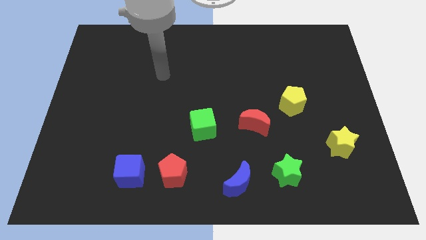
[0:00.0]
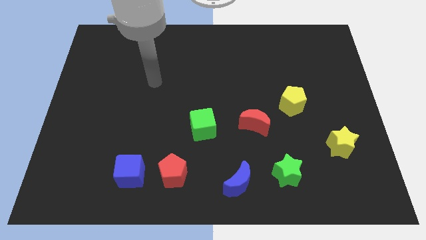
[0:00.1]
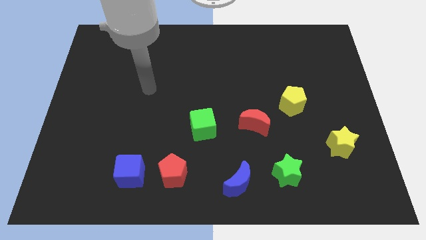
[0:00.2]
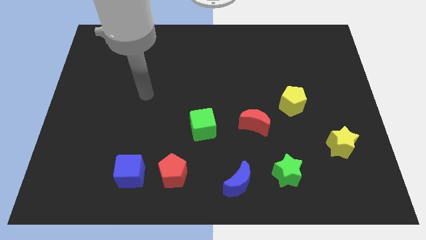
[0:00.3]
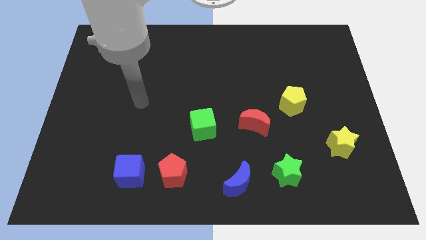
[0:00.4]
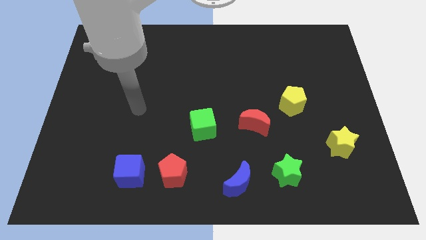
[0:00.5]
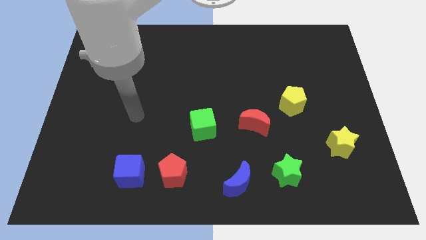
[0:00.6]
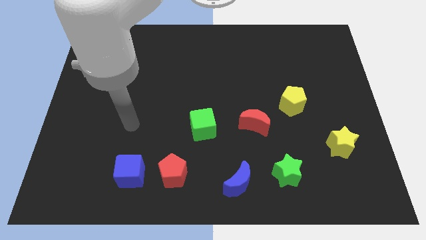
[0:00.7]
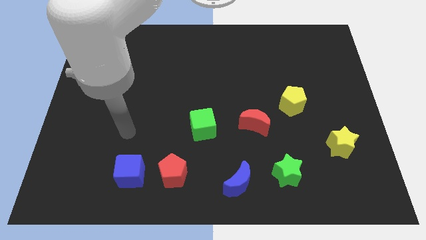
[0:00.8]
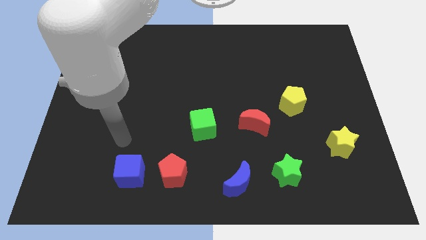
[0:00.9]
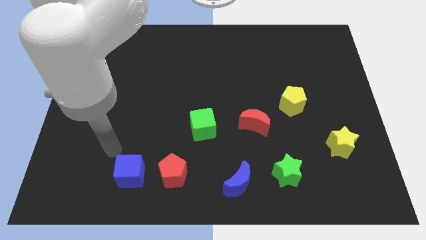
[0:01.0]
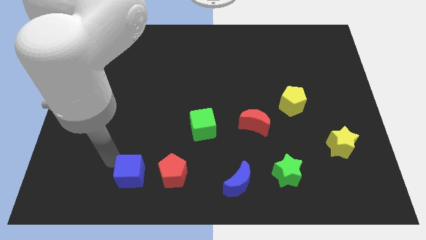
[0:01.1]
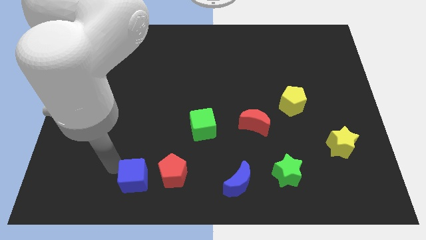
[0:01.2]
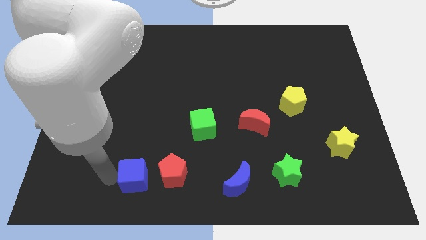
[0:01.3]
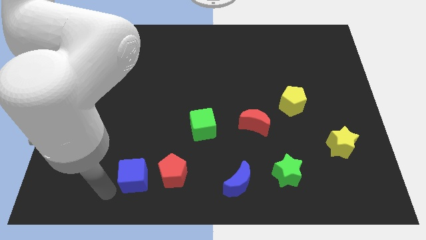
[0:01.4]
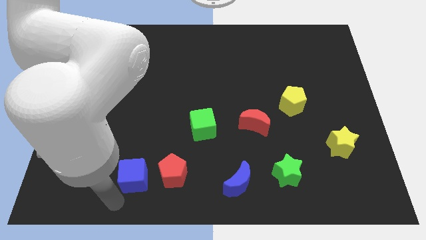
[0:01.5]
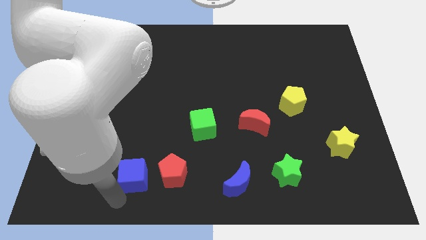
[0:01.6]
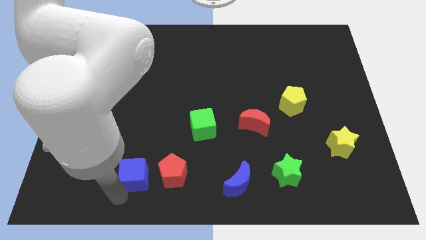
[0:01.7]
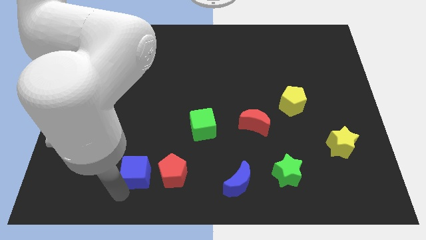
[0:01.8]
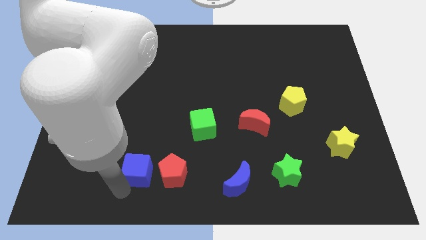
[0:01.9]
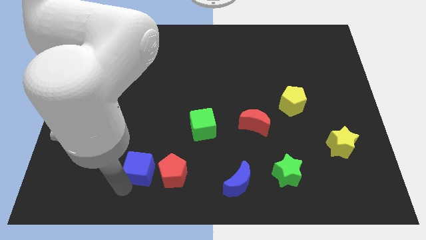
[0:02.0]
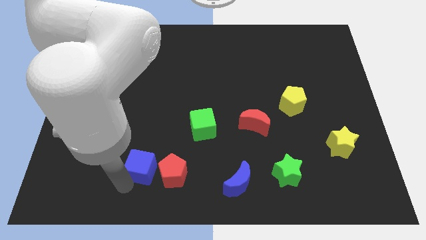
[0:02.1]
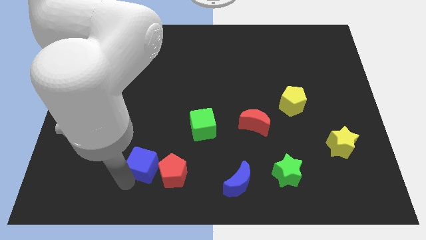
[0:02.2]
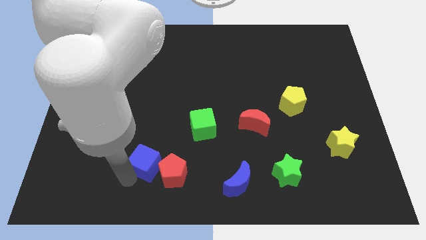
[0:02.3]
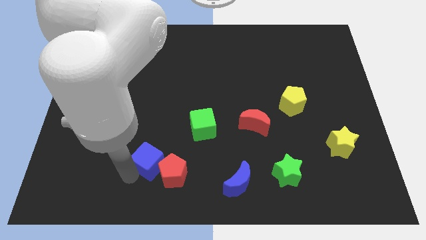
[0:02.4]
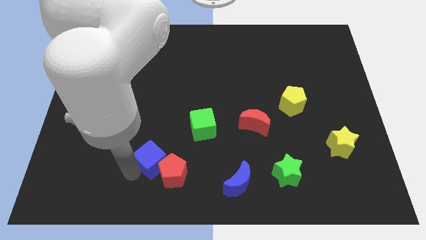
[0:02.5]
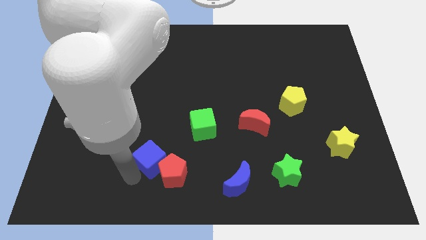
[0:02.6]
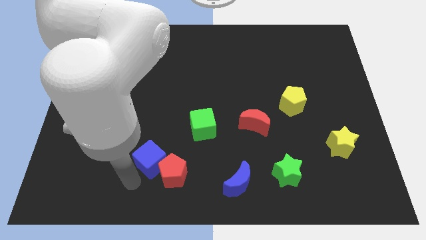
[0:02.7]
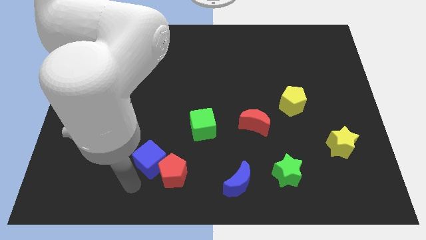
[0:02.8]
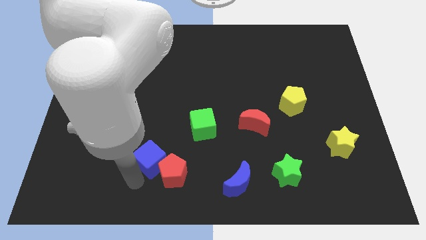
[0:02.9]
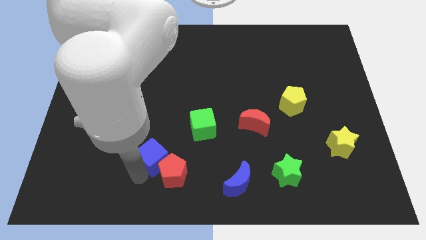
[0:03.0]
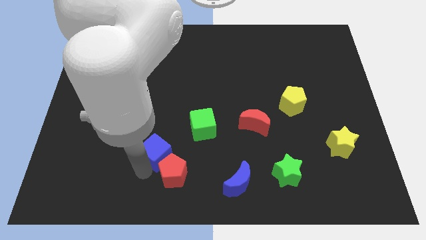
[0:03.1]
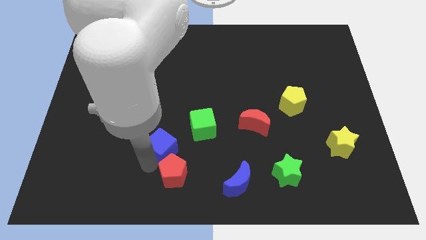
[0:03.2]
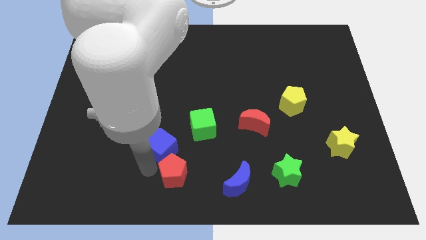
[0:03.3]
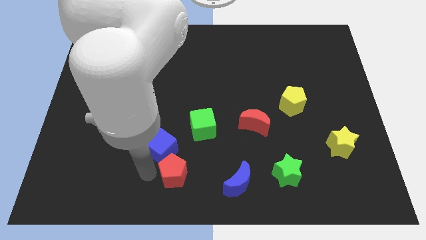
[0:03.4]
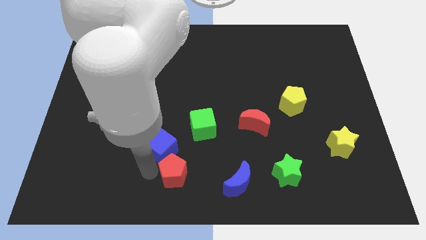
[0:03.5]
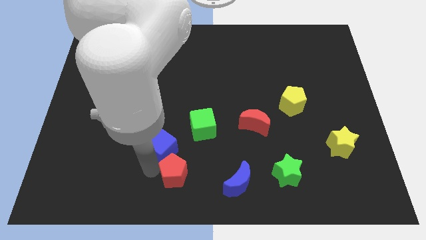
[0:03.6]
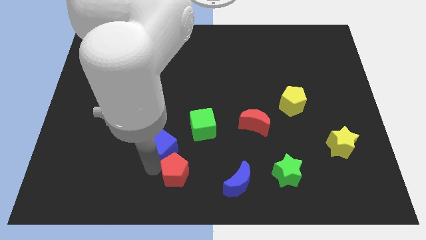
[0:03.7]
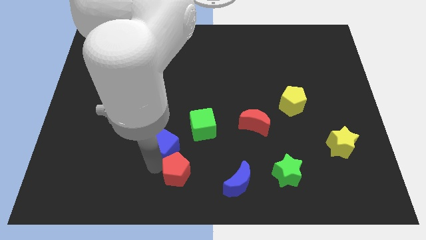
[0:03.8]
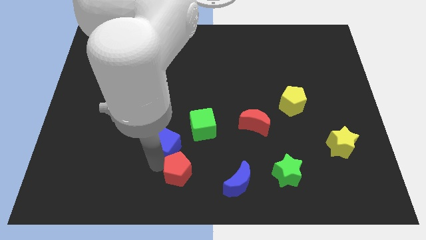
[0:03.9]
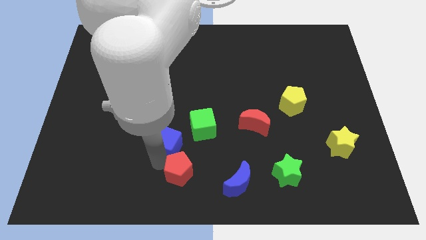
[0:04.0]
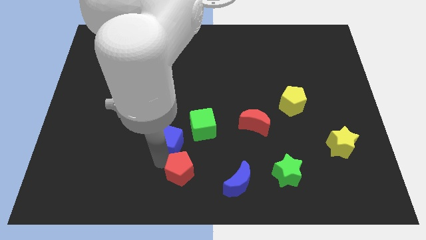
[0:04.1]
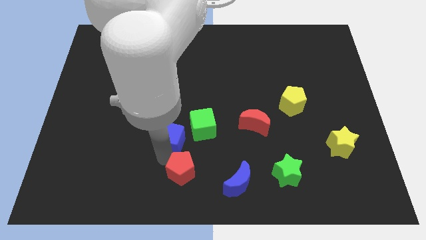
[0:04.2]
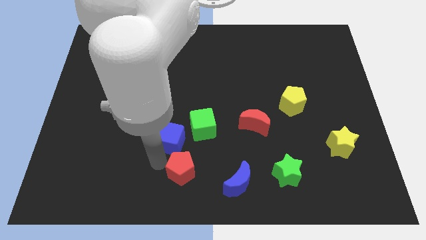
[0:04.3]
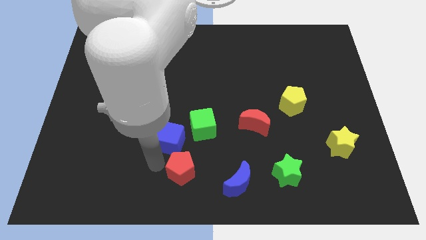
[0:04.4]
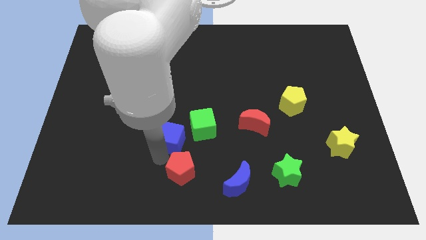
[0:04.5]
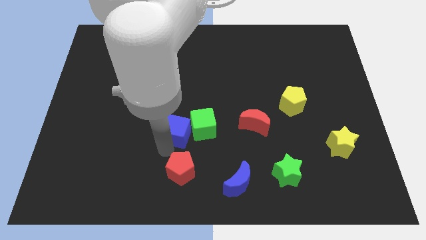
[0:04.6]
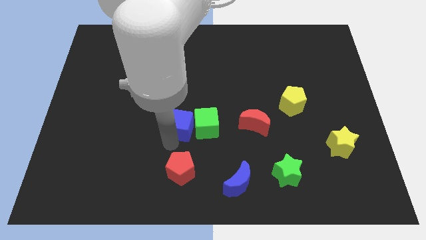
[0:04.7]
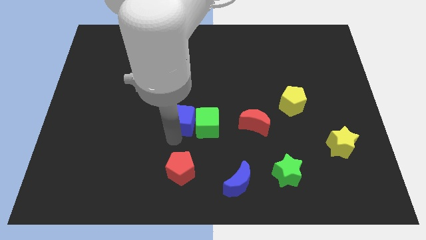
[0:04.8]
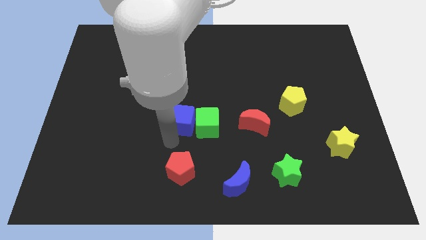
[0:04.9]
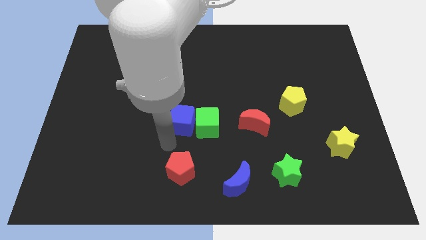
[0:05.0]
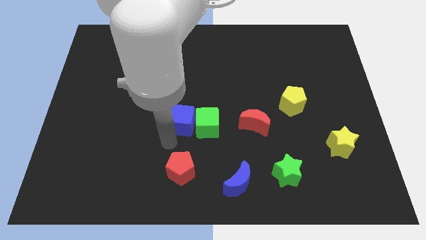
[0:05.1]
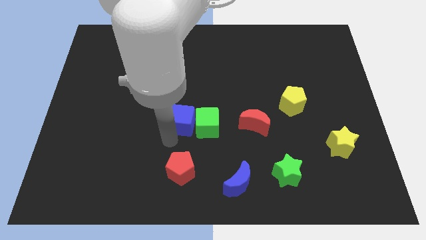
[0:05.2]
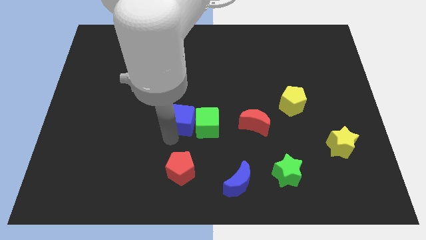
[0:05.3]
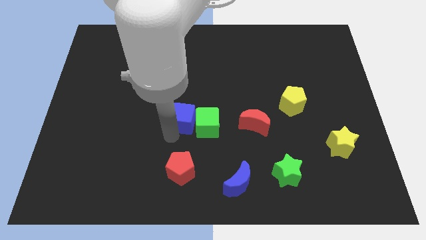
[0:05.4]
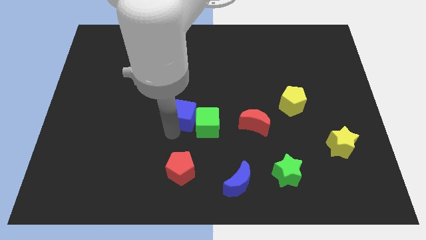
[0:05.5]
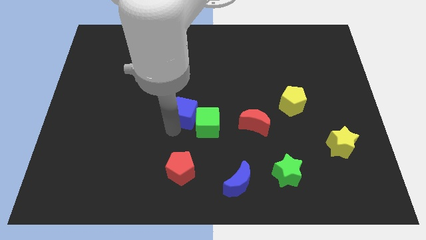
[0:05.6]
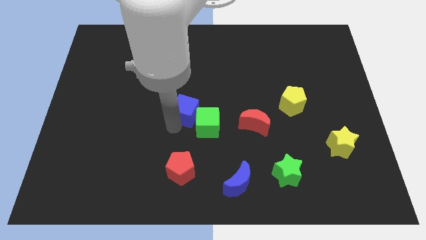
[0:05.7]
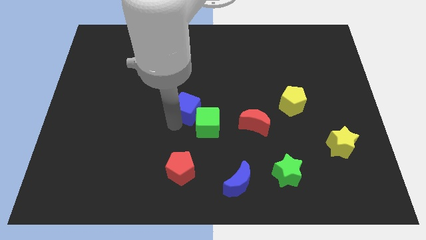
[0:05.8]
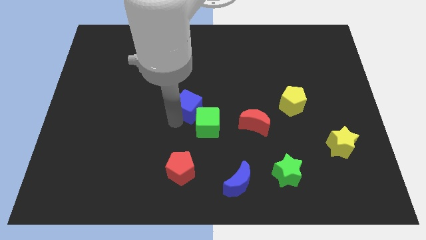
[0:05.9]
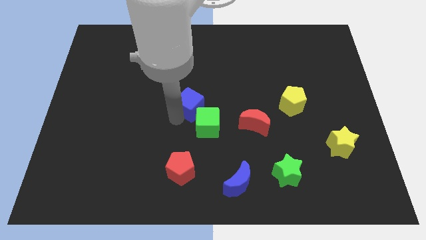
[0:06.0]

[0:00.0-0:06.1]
push the blue cube upwards and right

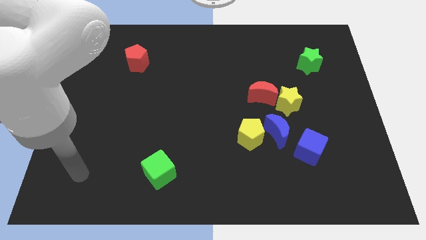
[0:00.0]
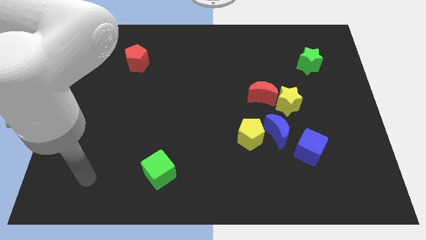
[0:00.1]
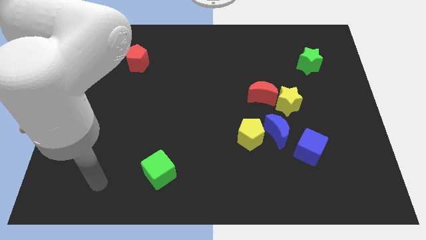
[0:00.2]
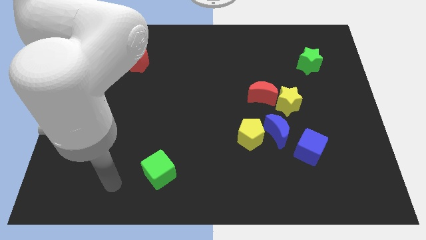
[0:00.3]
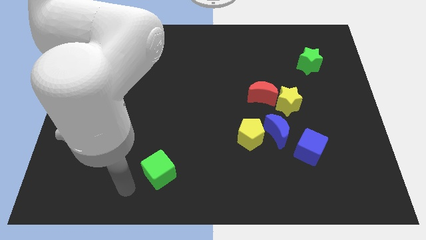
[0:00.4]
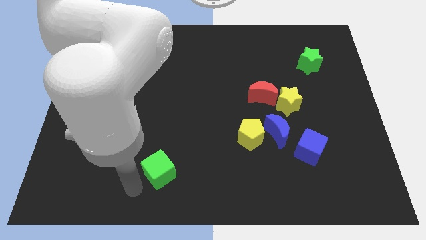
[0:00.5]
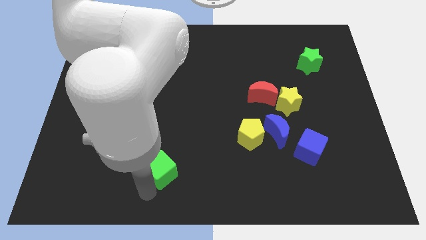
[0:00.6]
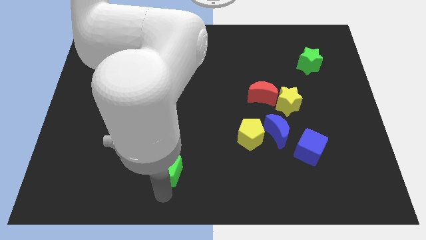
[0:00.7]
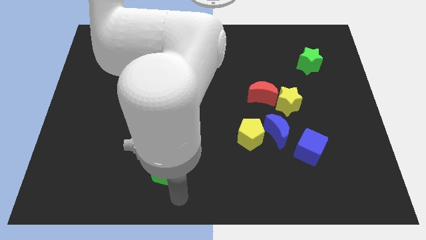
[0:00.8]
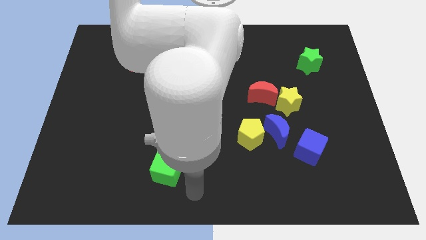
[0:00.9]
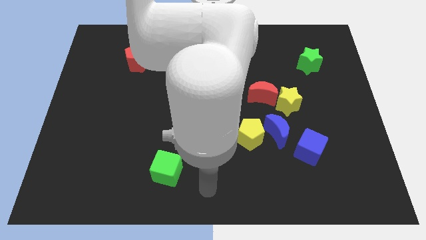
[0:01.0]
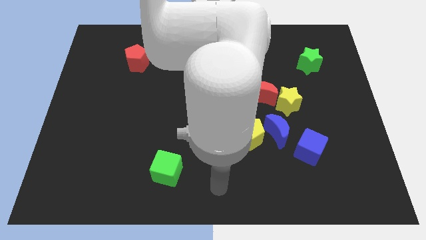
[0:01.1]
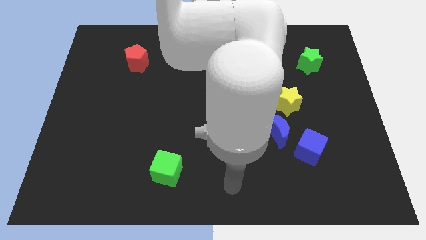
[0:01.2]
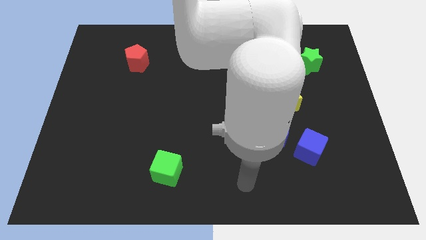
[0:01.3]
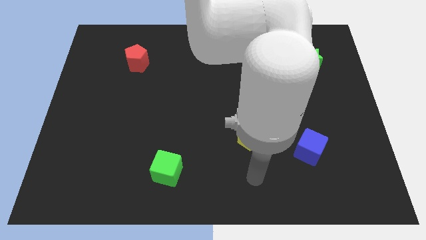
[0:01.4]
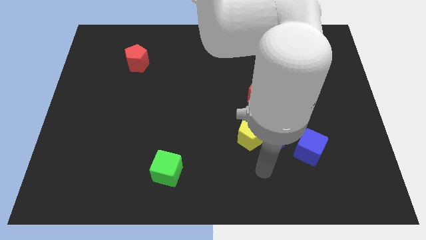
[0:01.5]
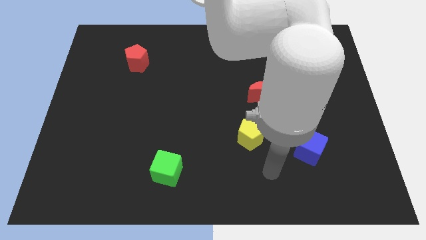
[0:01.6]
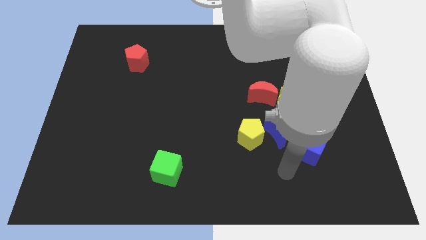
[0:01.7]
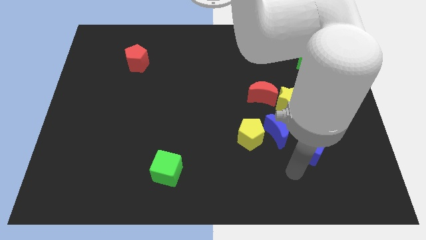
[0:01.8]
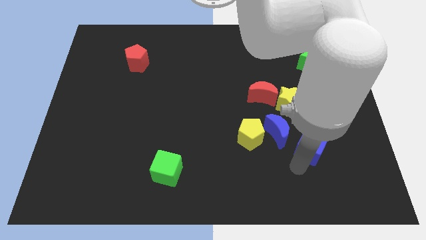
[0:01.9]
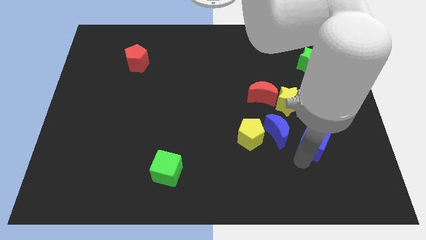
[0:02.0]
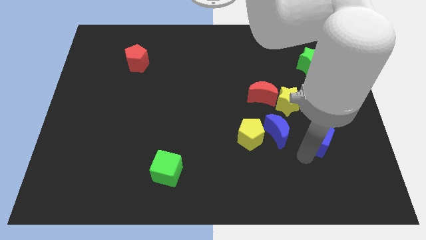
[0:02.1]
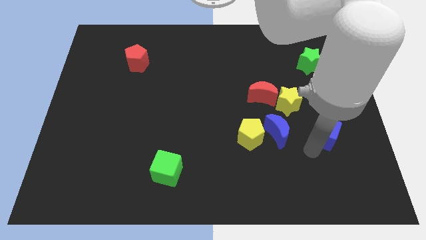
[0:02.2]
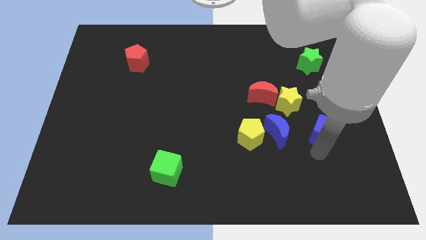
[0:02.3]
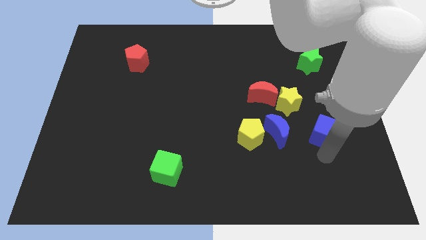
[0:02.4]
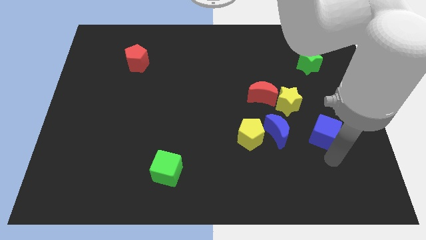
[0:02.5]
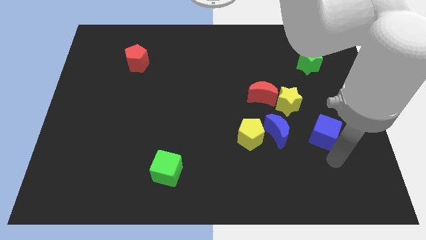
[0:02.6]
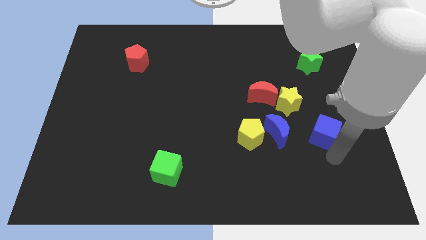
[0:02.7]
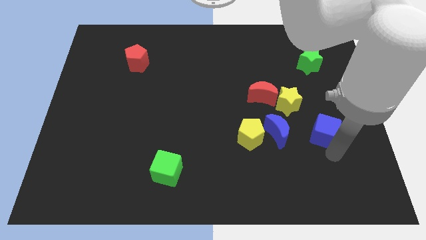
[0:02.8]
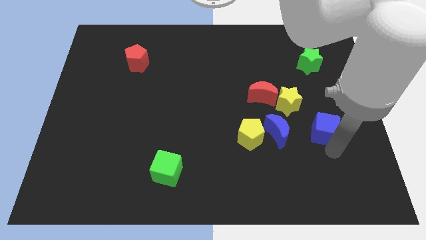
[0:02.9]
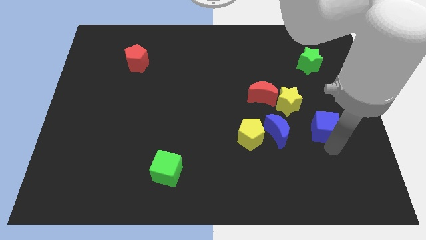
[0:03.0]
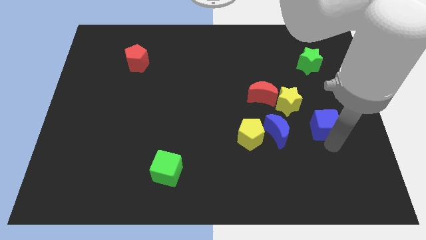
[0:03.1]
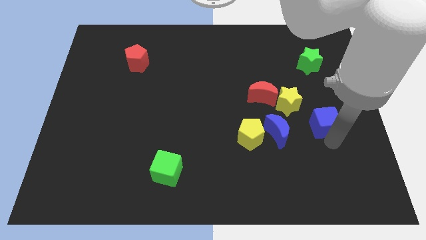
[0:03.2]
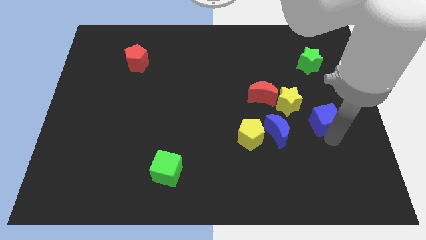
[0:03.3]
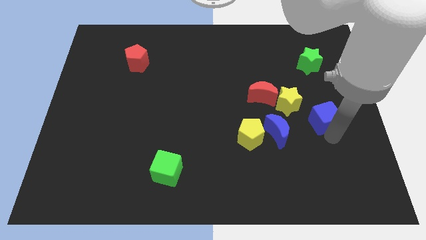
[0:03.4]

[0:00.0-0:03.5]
move the blue cube upwards slightly
